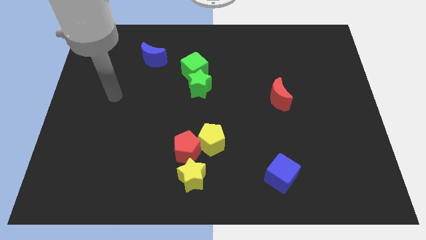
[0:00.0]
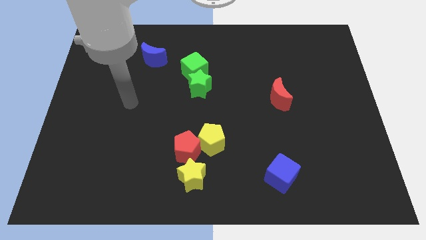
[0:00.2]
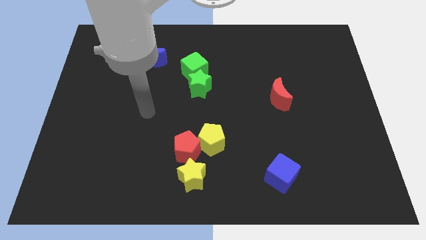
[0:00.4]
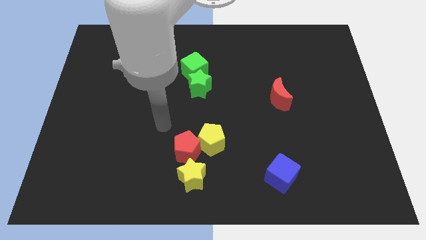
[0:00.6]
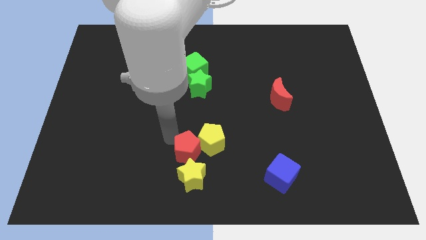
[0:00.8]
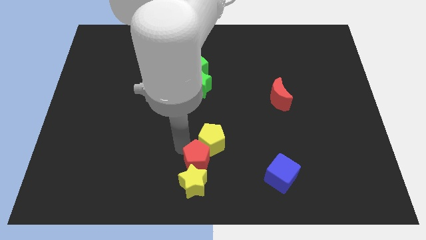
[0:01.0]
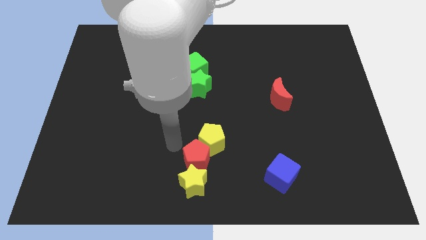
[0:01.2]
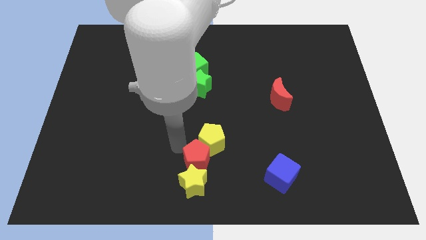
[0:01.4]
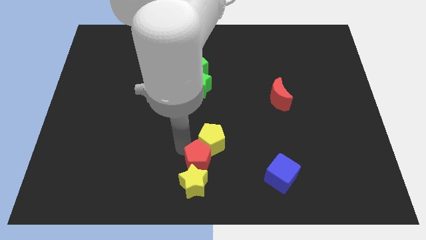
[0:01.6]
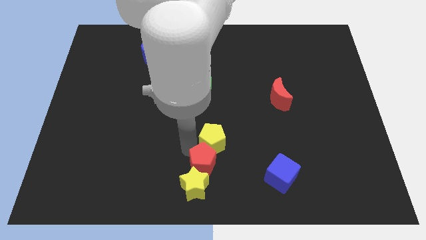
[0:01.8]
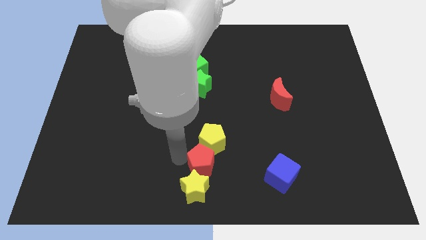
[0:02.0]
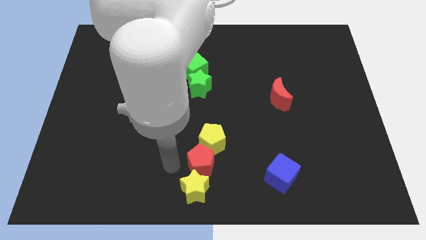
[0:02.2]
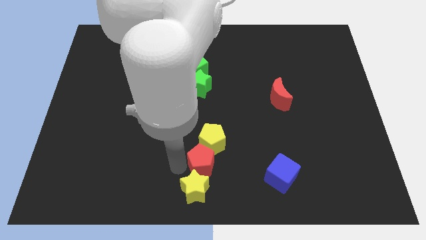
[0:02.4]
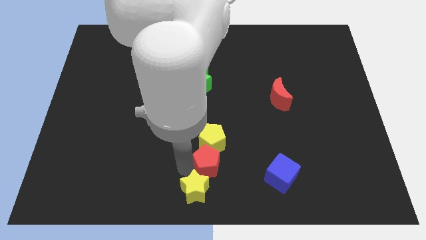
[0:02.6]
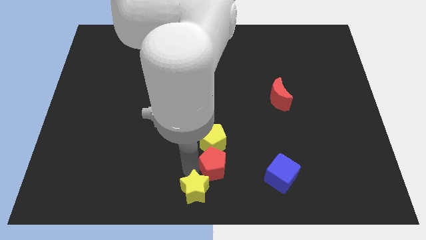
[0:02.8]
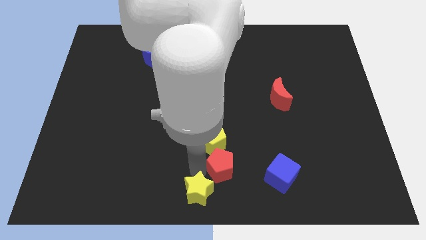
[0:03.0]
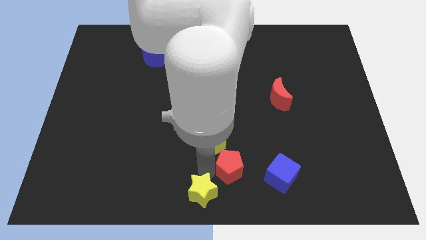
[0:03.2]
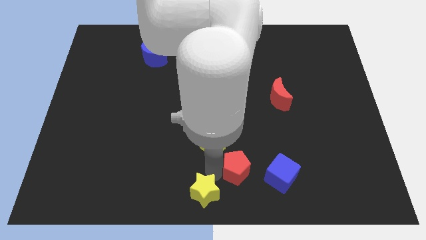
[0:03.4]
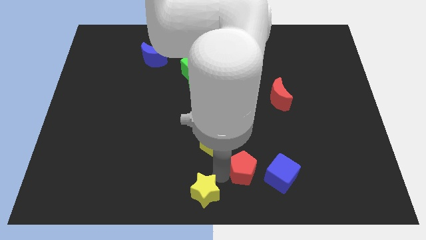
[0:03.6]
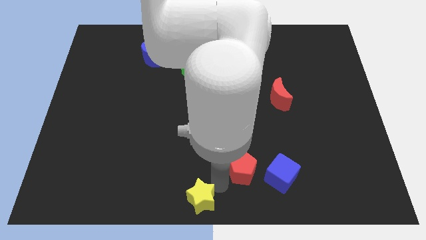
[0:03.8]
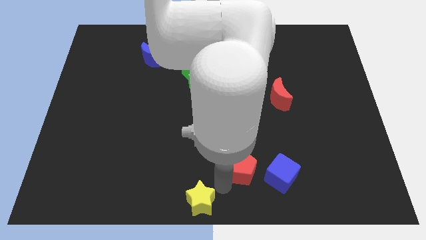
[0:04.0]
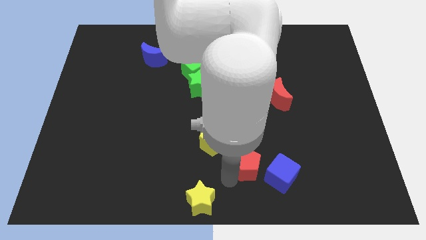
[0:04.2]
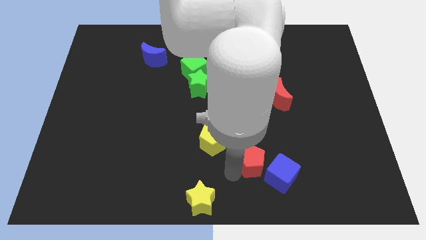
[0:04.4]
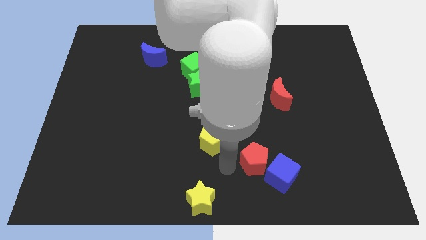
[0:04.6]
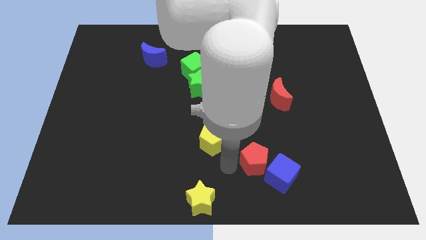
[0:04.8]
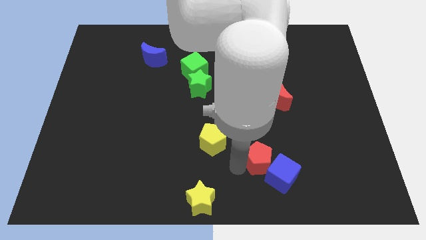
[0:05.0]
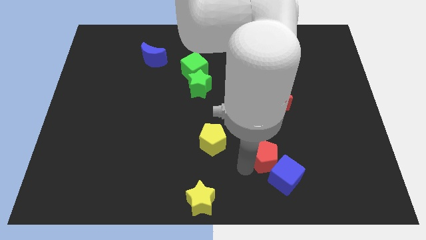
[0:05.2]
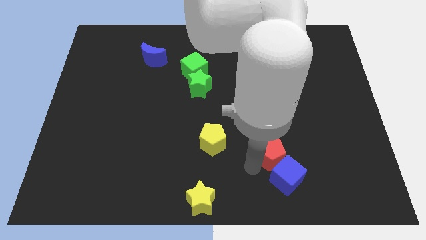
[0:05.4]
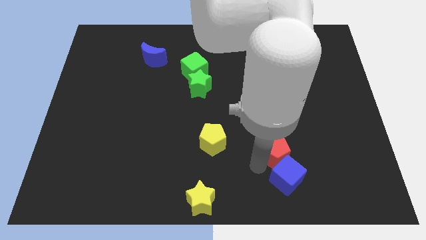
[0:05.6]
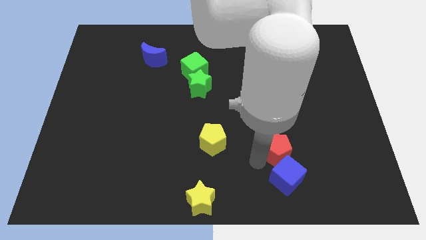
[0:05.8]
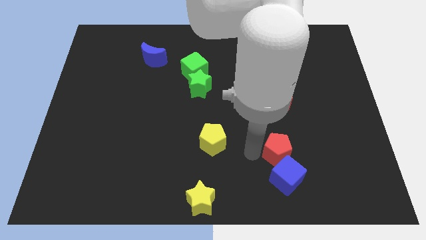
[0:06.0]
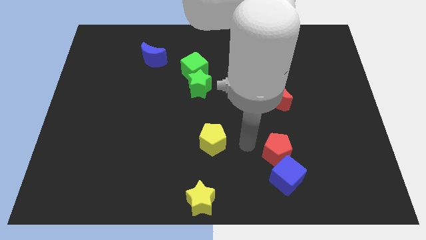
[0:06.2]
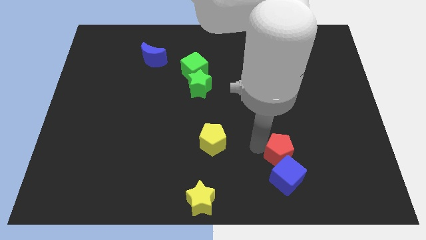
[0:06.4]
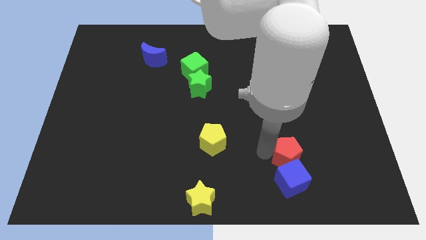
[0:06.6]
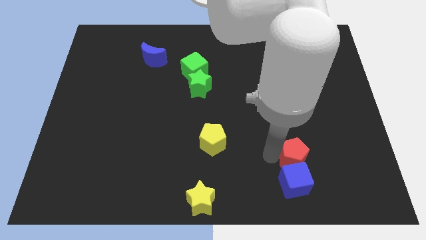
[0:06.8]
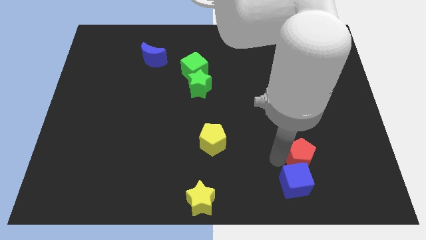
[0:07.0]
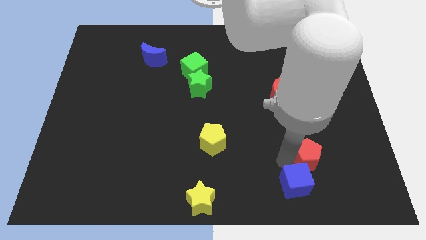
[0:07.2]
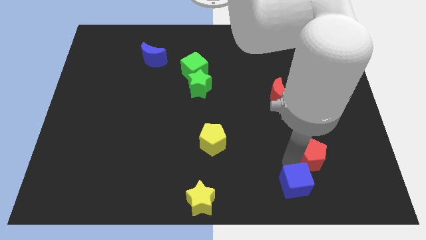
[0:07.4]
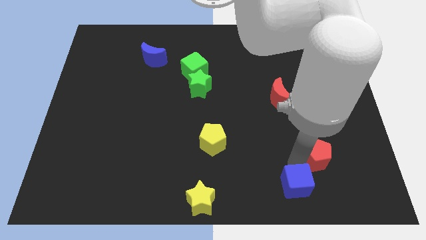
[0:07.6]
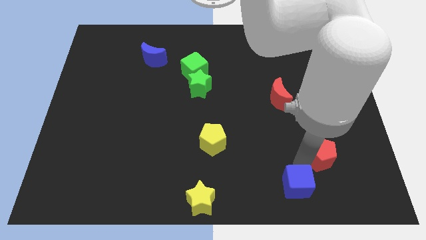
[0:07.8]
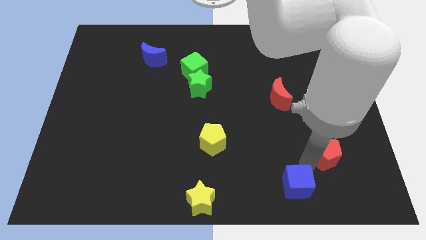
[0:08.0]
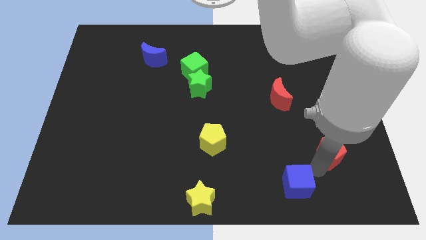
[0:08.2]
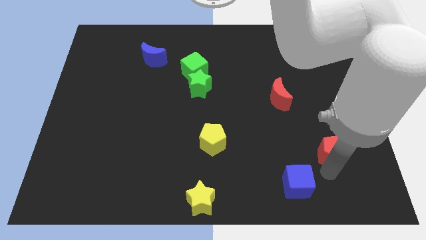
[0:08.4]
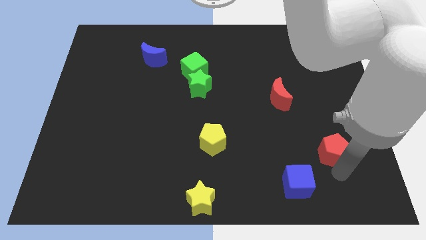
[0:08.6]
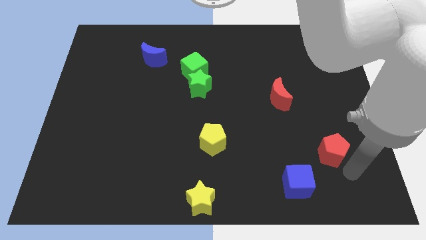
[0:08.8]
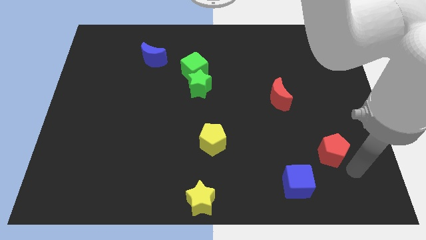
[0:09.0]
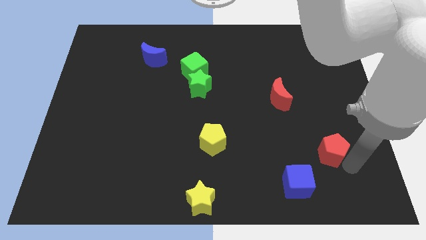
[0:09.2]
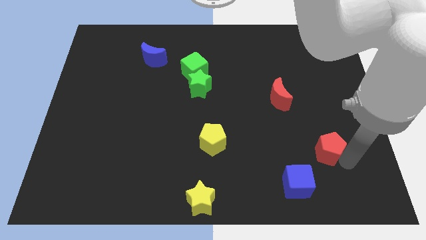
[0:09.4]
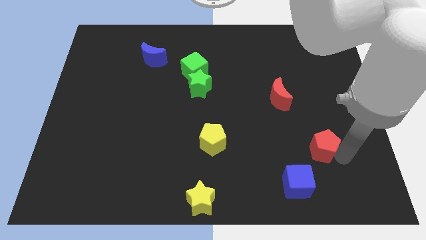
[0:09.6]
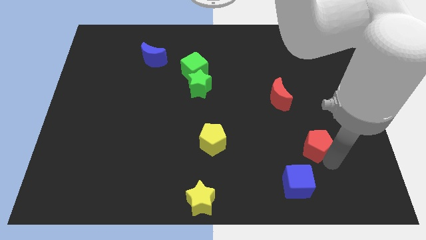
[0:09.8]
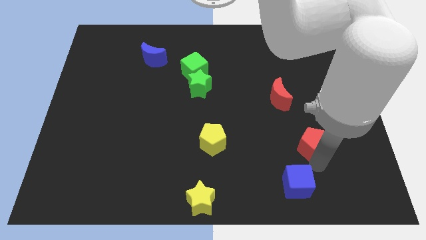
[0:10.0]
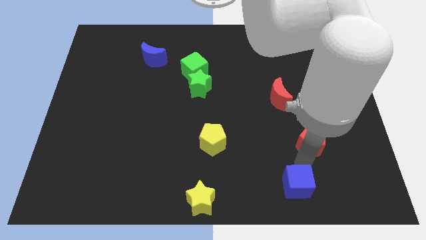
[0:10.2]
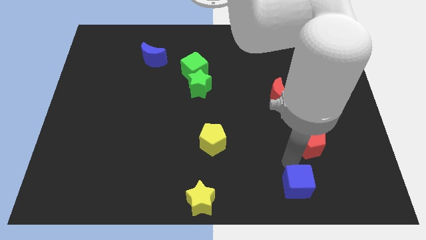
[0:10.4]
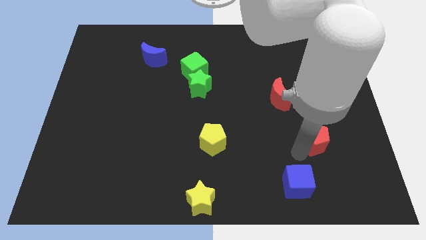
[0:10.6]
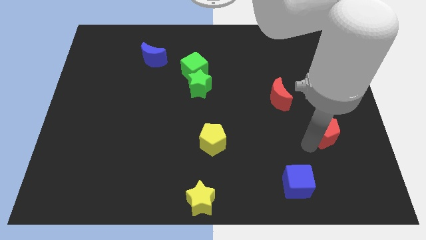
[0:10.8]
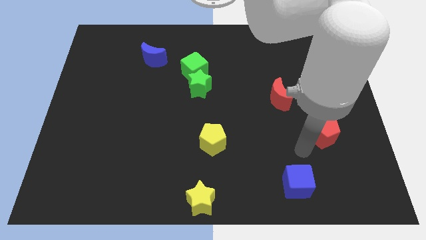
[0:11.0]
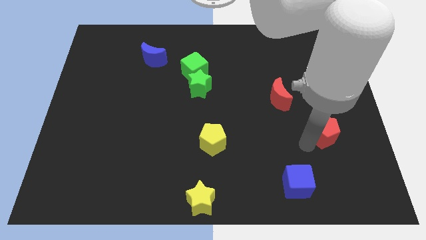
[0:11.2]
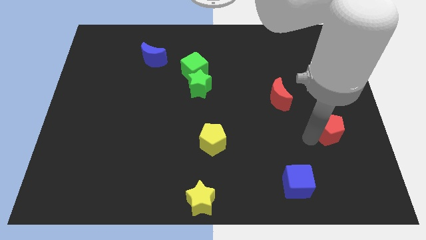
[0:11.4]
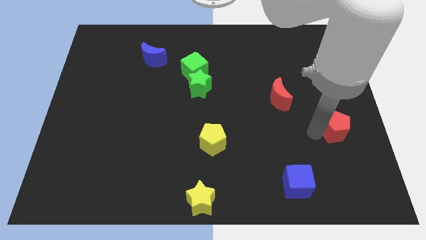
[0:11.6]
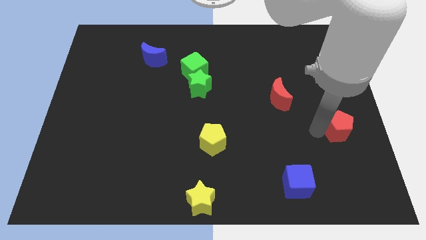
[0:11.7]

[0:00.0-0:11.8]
slide the red pentagon to the right side of the board

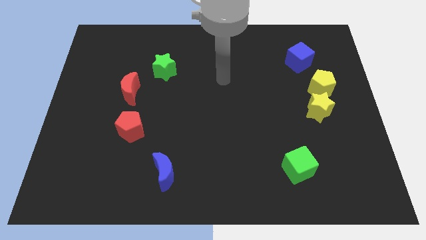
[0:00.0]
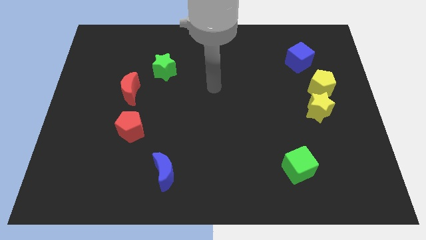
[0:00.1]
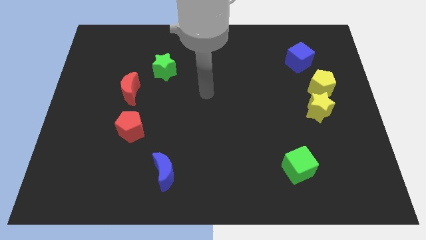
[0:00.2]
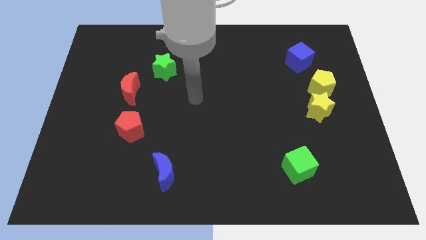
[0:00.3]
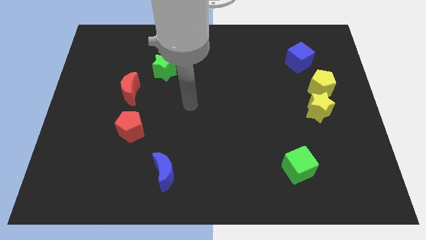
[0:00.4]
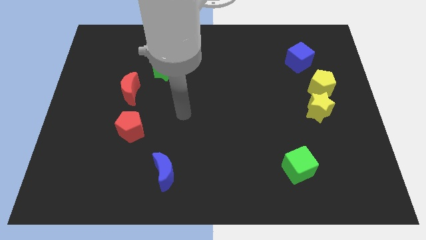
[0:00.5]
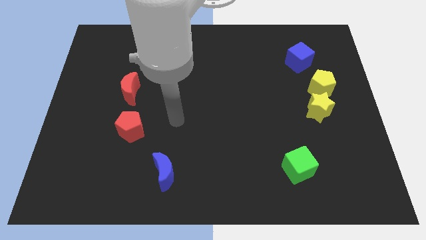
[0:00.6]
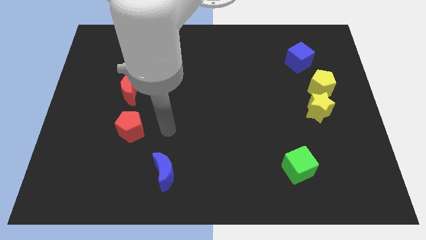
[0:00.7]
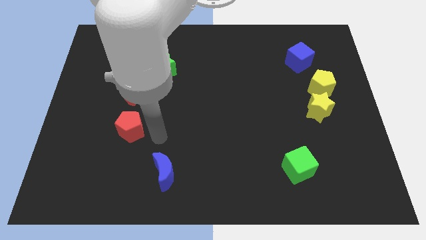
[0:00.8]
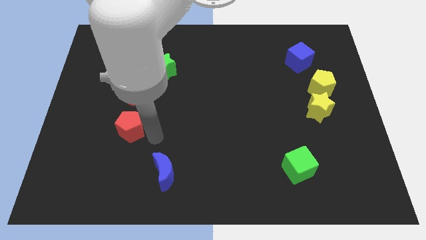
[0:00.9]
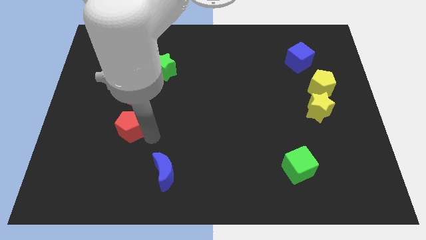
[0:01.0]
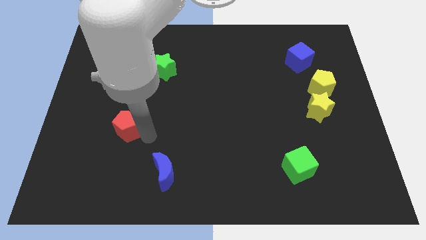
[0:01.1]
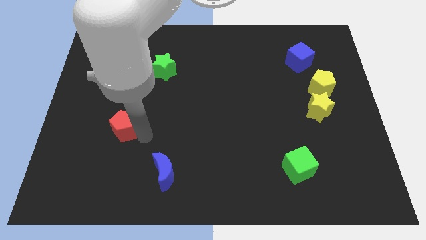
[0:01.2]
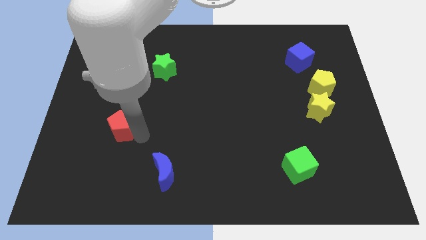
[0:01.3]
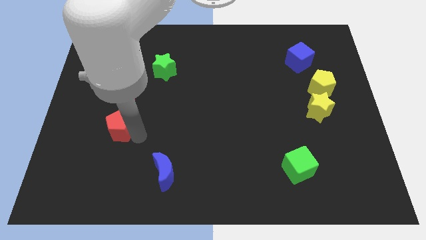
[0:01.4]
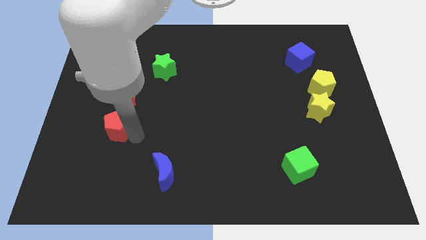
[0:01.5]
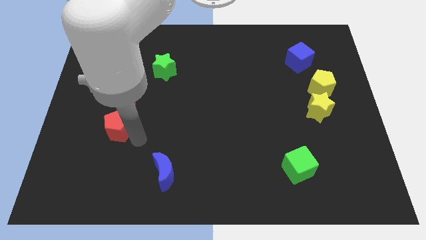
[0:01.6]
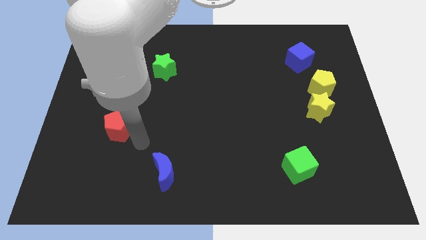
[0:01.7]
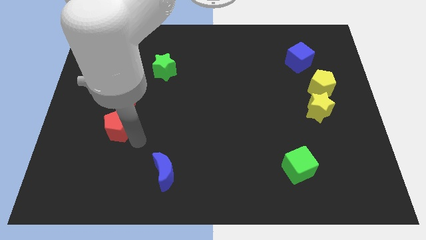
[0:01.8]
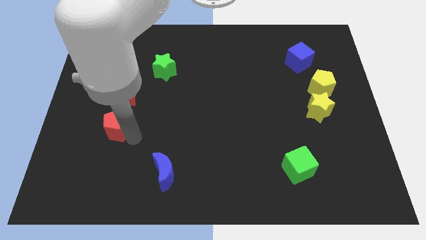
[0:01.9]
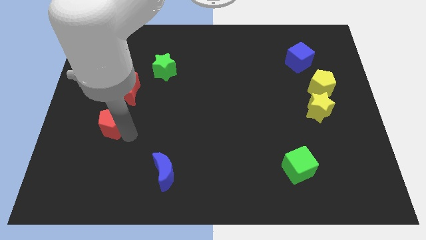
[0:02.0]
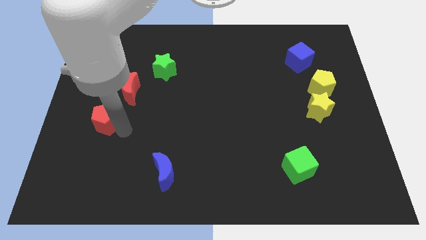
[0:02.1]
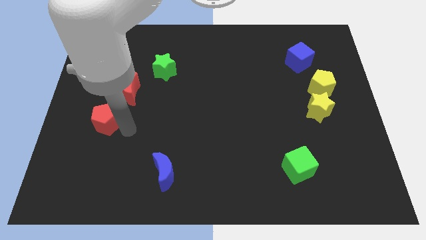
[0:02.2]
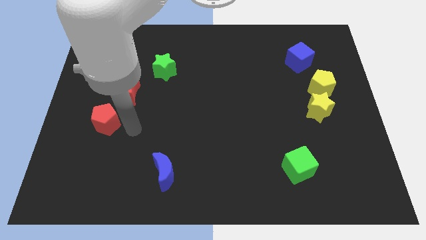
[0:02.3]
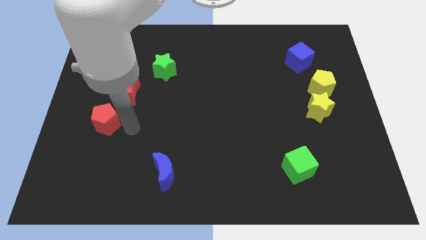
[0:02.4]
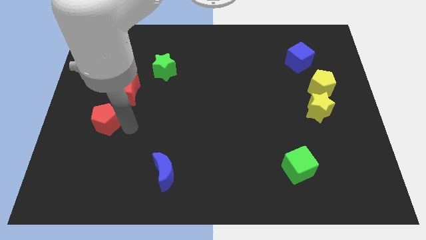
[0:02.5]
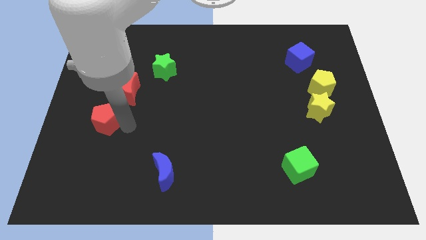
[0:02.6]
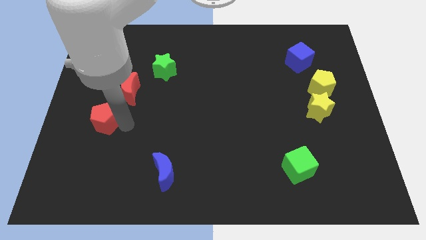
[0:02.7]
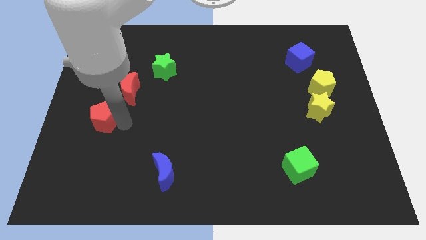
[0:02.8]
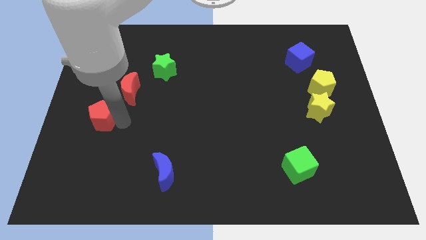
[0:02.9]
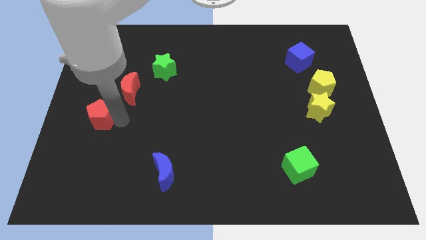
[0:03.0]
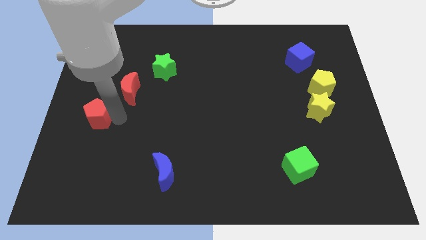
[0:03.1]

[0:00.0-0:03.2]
slide the red pentagon to the center left
